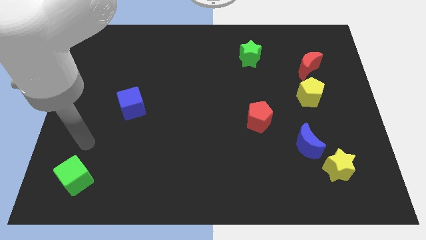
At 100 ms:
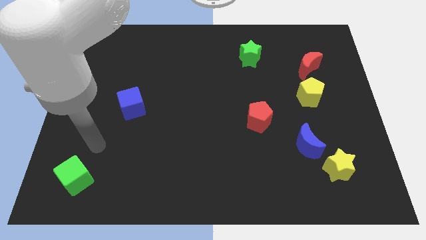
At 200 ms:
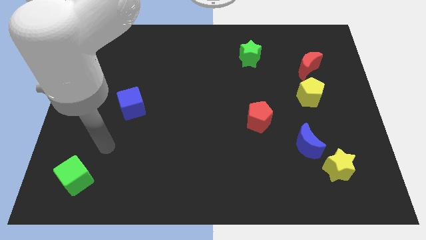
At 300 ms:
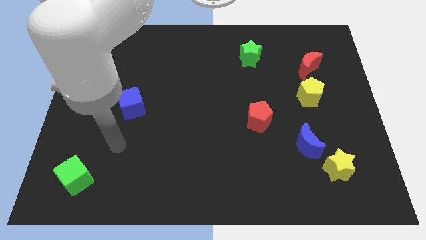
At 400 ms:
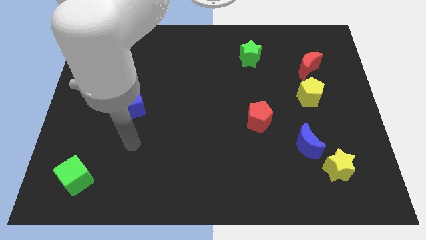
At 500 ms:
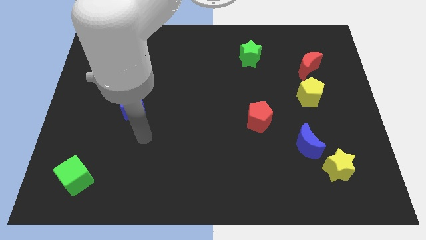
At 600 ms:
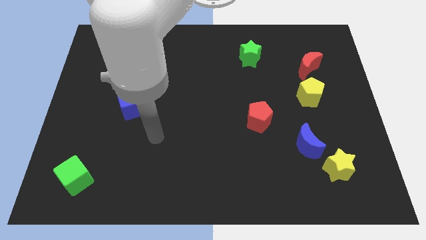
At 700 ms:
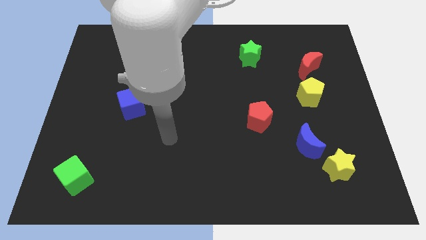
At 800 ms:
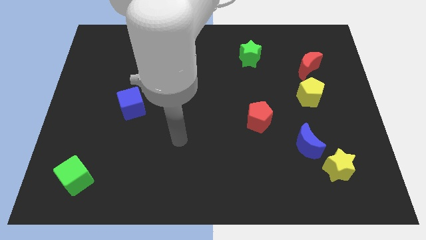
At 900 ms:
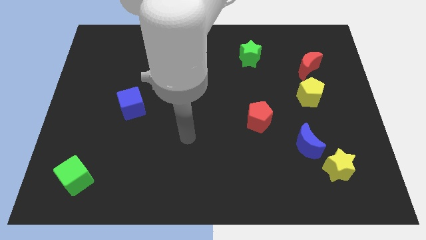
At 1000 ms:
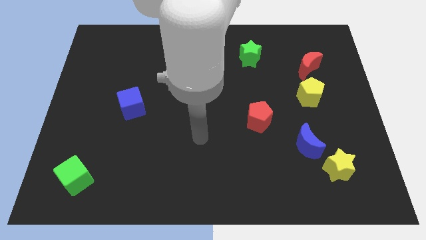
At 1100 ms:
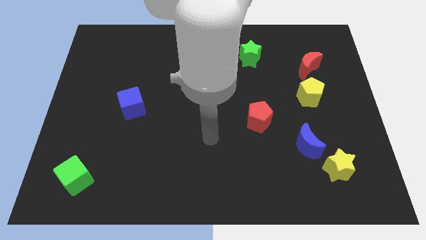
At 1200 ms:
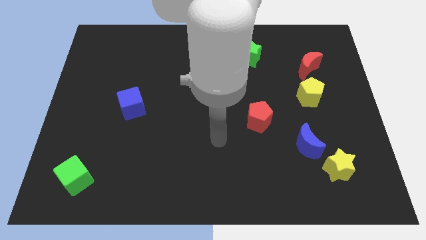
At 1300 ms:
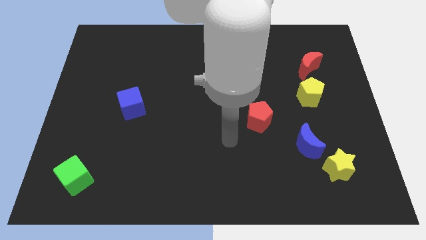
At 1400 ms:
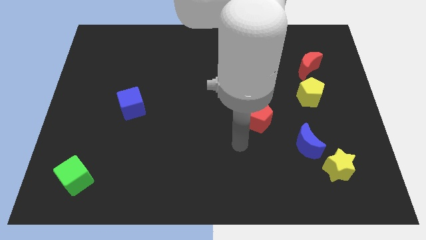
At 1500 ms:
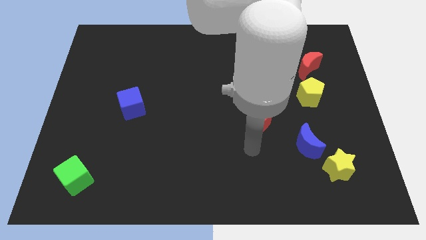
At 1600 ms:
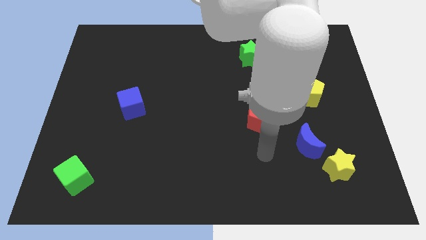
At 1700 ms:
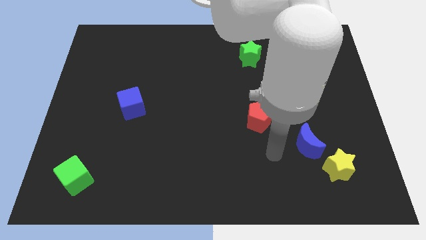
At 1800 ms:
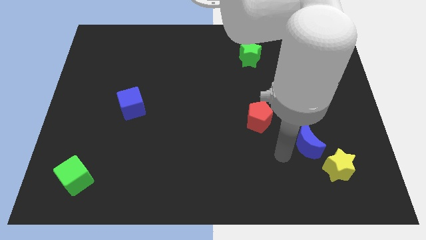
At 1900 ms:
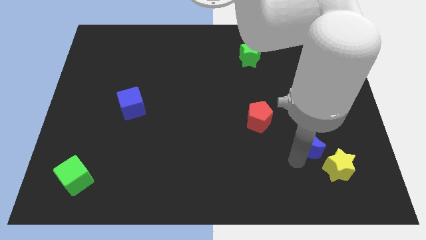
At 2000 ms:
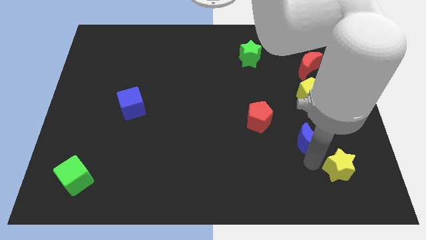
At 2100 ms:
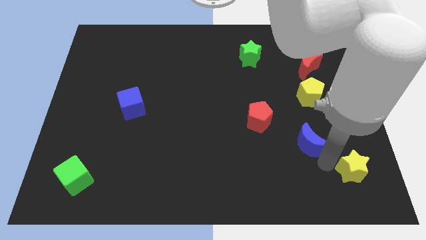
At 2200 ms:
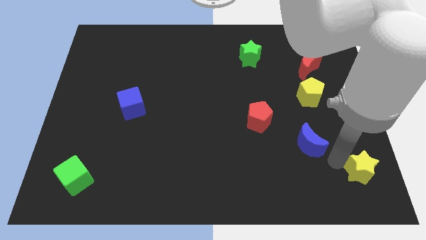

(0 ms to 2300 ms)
pull the blue moon apart from the yellow star

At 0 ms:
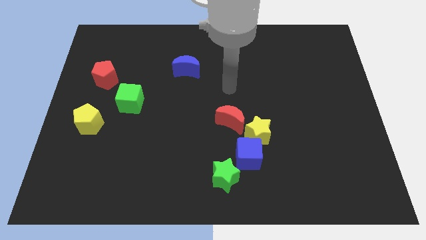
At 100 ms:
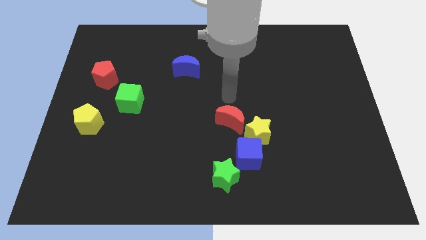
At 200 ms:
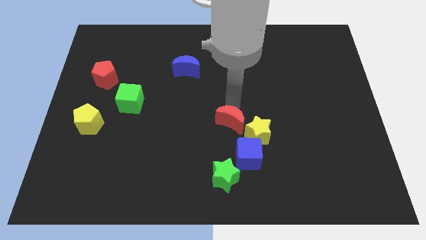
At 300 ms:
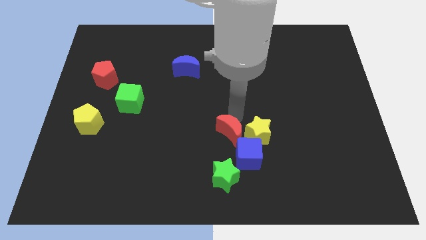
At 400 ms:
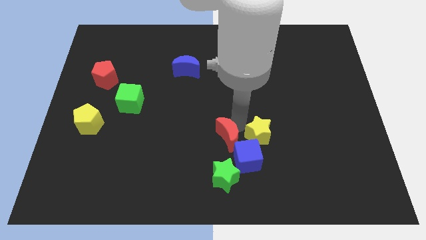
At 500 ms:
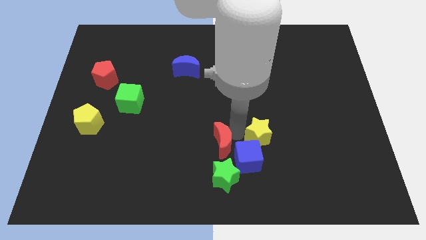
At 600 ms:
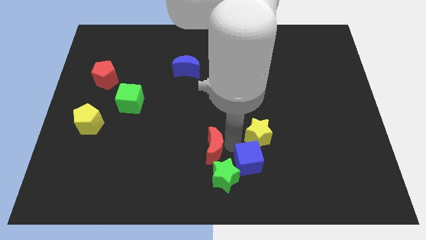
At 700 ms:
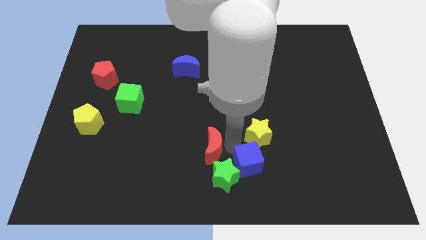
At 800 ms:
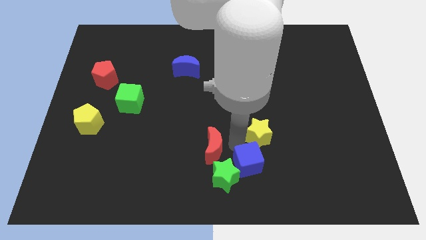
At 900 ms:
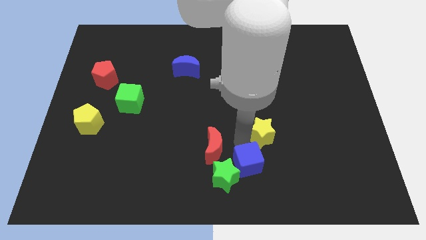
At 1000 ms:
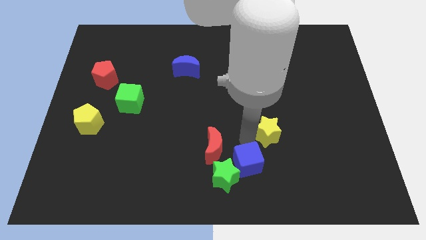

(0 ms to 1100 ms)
pull the yellow star apart from the blue cube and red moon

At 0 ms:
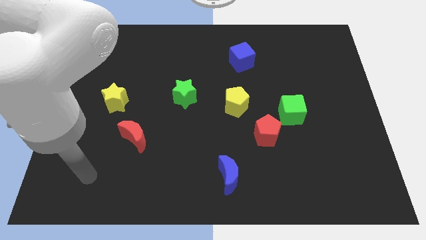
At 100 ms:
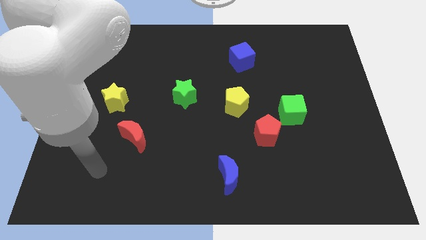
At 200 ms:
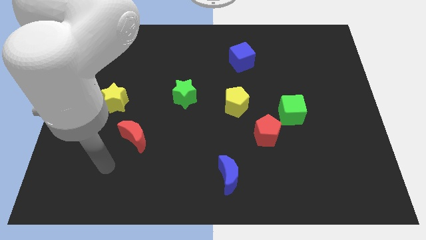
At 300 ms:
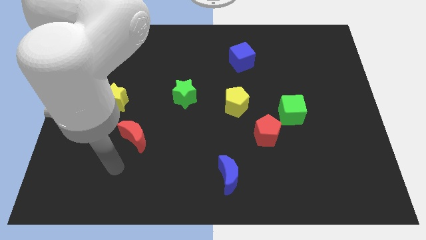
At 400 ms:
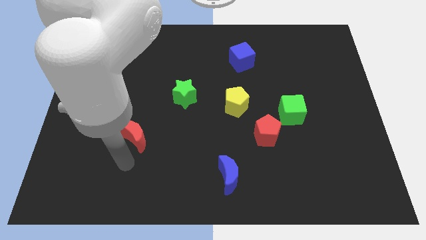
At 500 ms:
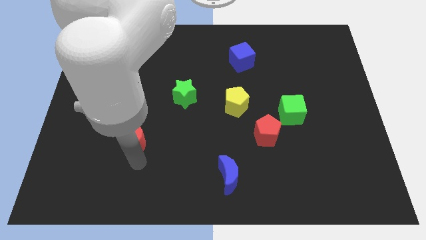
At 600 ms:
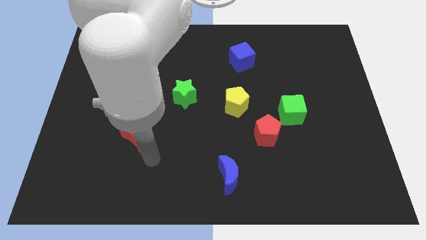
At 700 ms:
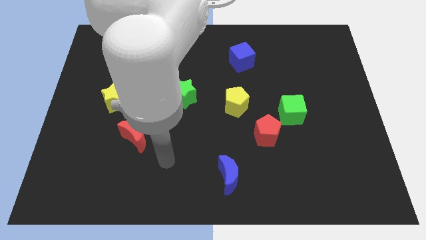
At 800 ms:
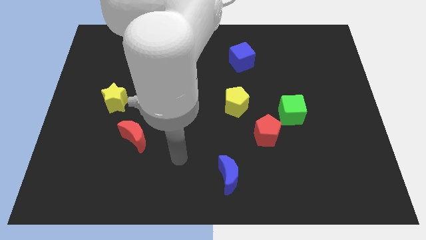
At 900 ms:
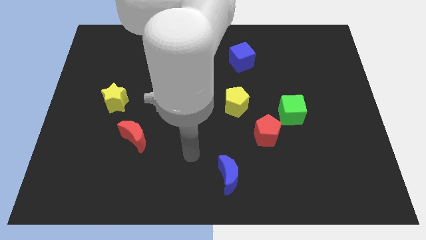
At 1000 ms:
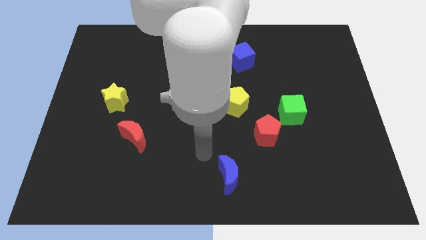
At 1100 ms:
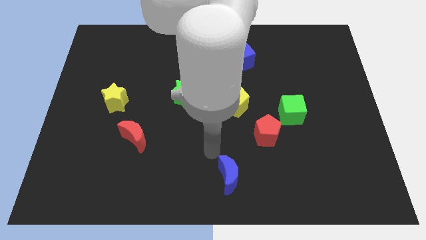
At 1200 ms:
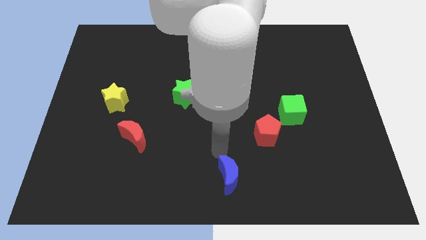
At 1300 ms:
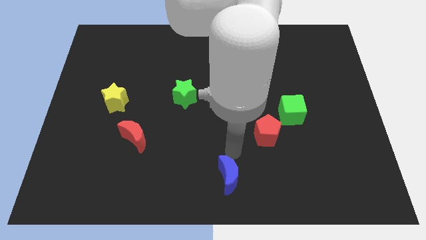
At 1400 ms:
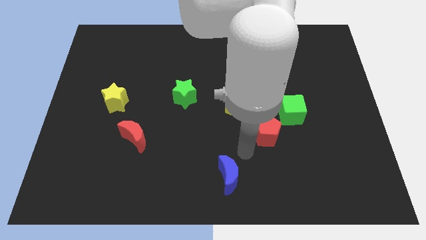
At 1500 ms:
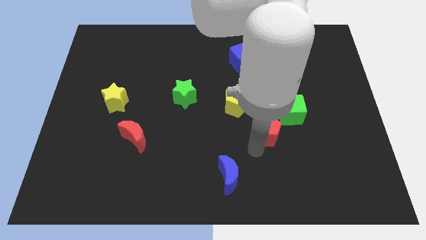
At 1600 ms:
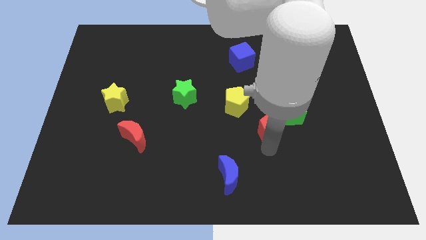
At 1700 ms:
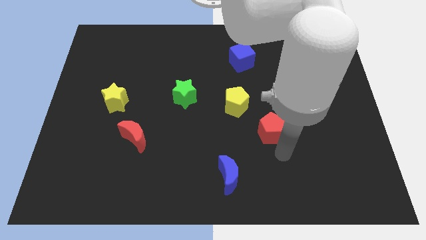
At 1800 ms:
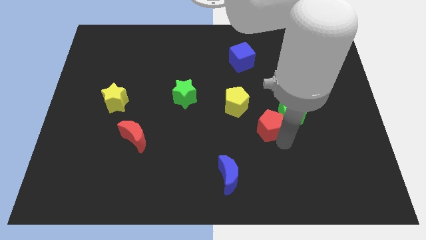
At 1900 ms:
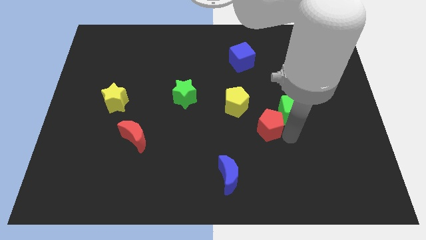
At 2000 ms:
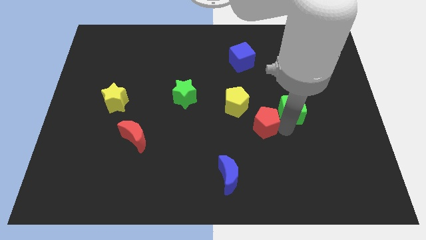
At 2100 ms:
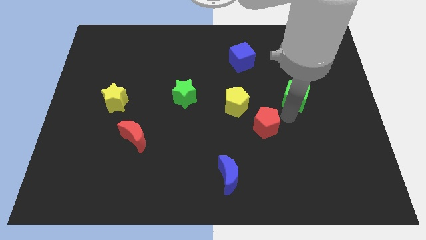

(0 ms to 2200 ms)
separate the red pentagon from the green cube

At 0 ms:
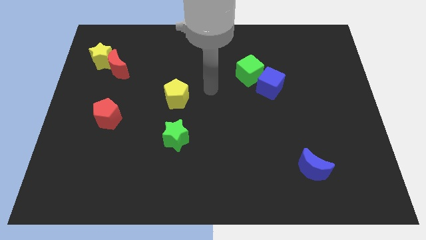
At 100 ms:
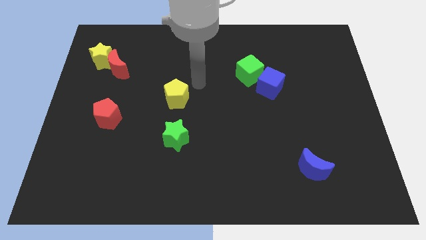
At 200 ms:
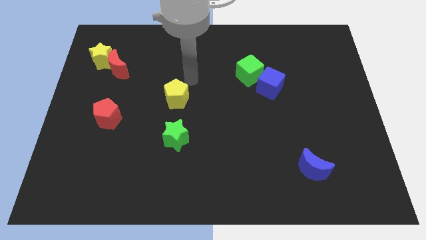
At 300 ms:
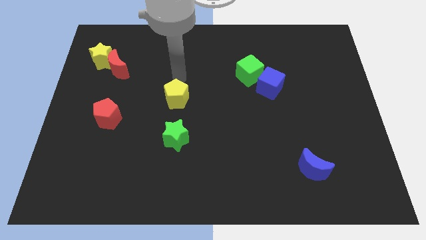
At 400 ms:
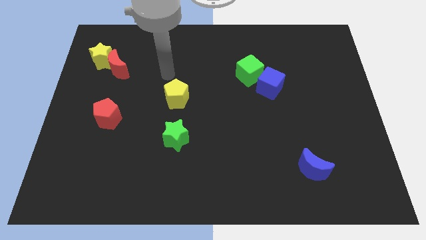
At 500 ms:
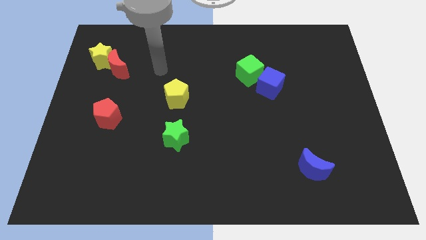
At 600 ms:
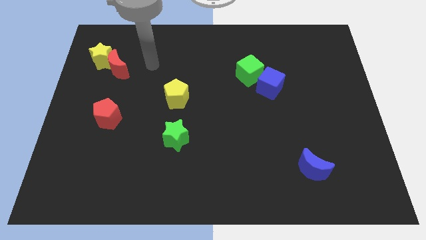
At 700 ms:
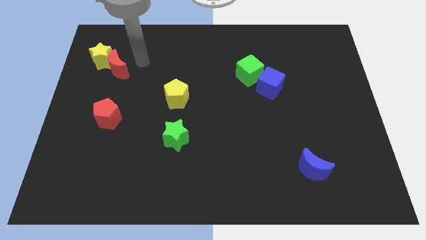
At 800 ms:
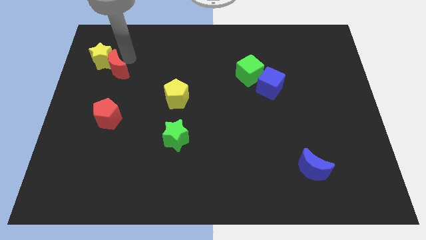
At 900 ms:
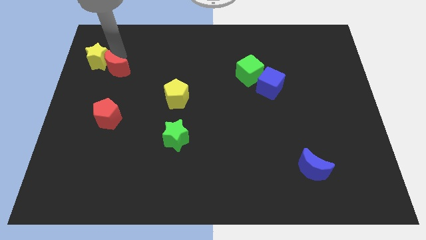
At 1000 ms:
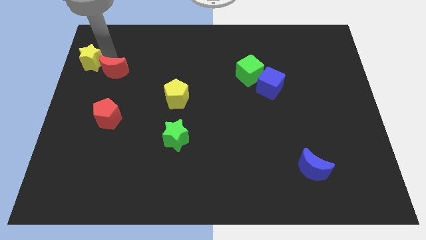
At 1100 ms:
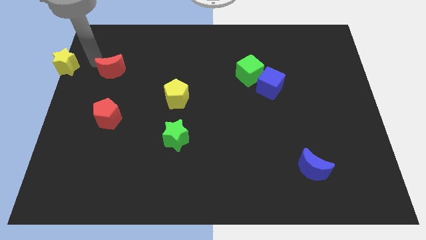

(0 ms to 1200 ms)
move the red moon away from the yellow star

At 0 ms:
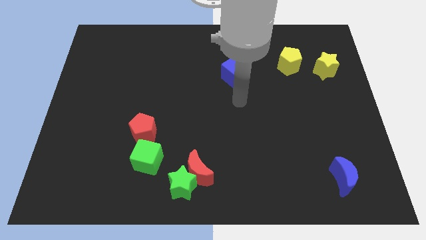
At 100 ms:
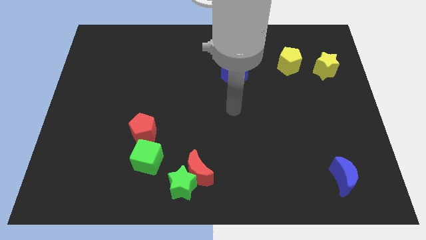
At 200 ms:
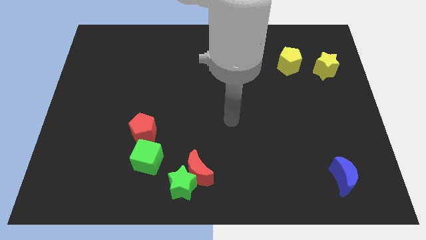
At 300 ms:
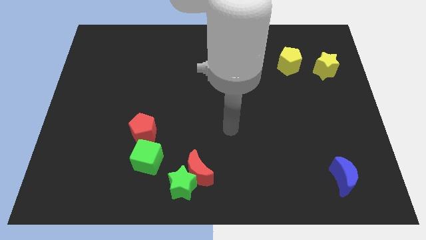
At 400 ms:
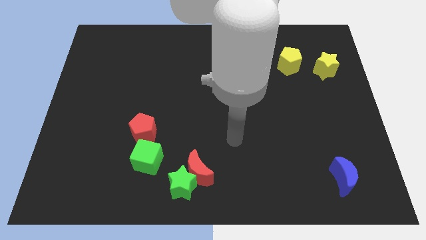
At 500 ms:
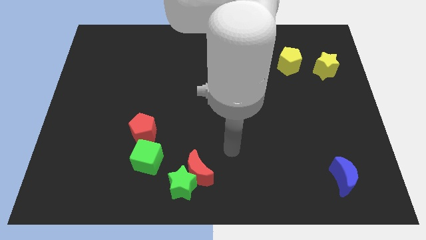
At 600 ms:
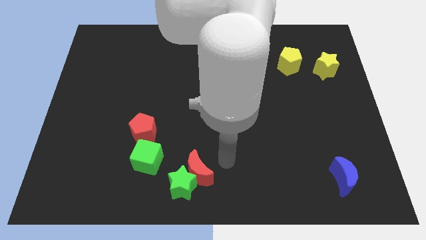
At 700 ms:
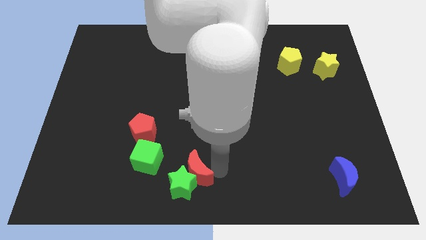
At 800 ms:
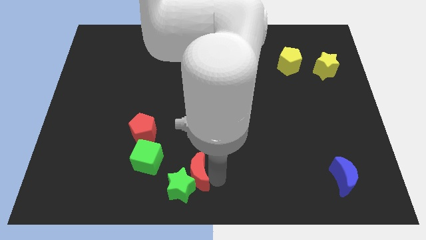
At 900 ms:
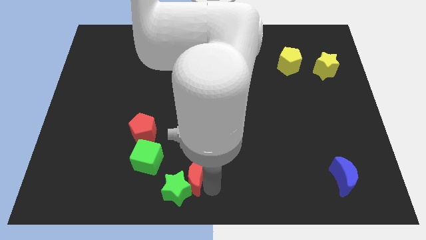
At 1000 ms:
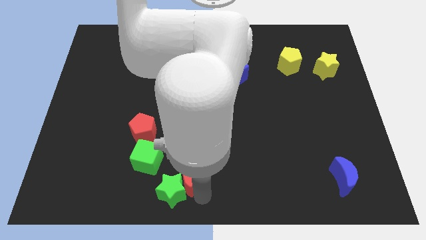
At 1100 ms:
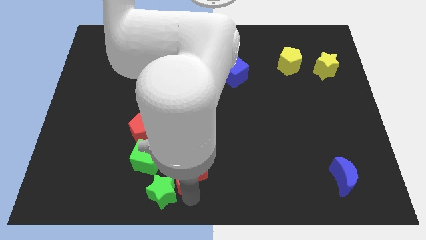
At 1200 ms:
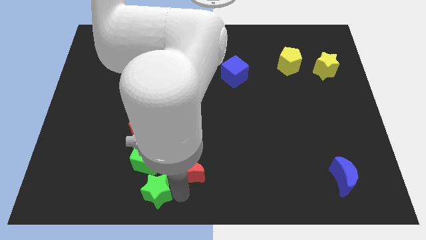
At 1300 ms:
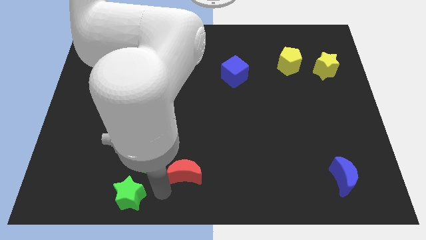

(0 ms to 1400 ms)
pull the red moon apart from the green star

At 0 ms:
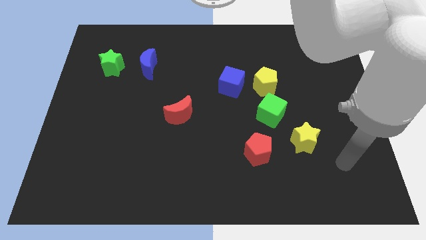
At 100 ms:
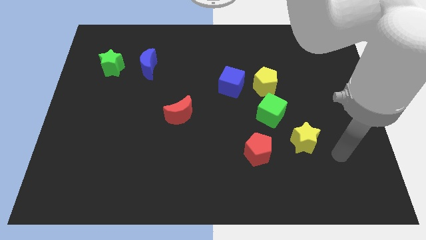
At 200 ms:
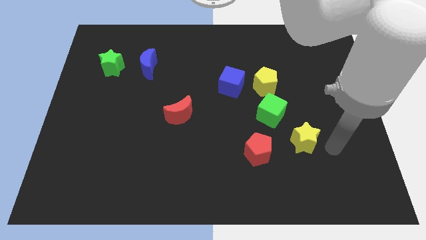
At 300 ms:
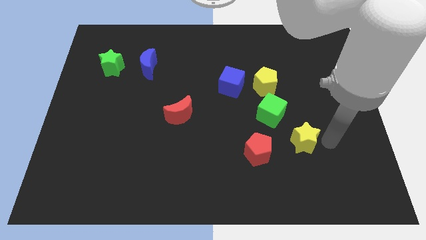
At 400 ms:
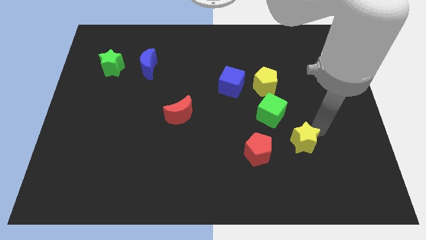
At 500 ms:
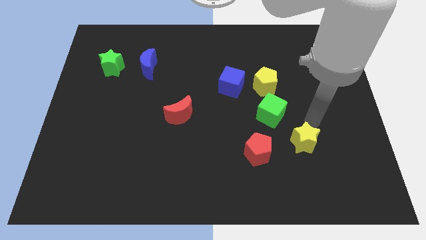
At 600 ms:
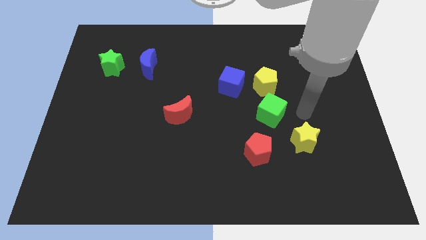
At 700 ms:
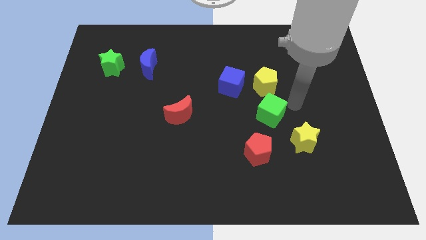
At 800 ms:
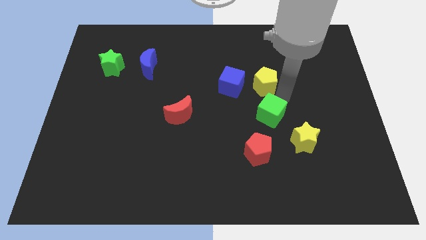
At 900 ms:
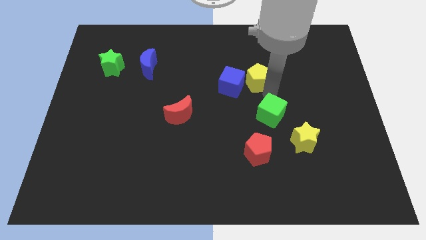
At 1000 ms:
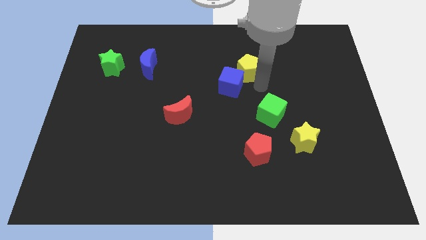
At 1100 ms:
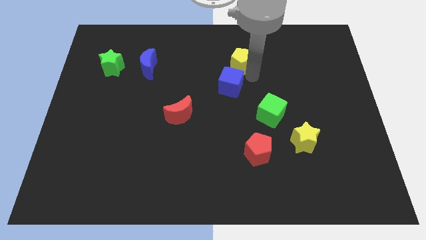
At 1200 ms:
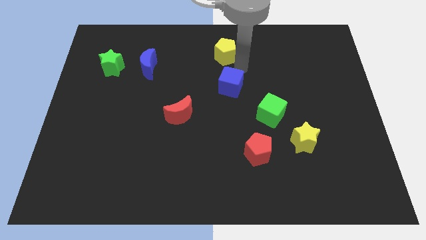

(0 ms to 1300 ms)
separate the blue cube from the yellow pentagon

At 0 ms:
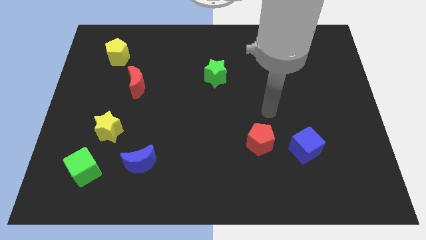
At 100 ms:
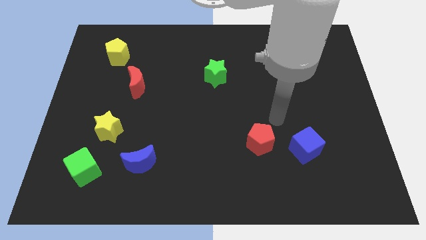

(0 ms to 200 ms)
separate the red pentagon from the blue cube
